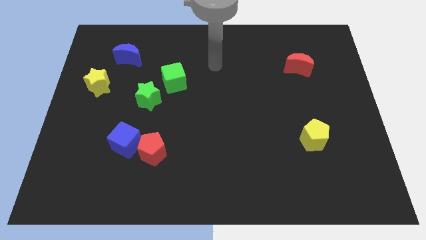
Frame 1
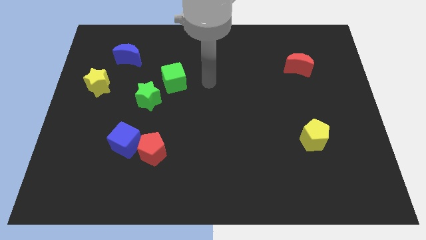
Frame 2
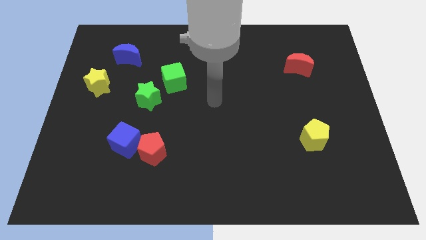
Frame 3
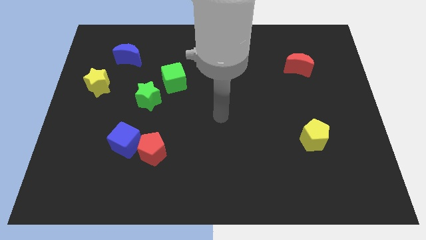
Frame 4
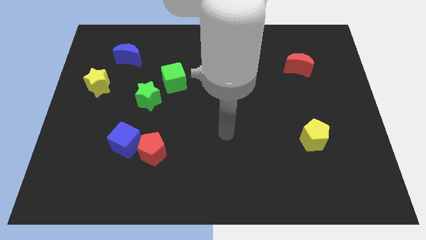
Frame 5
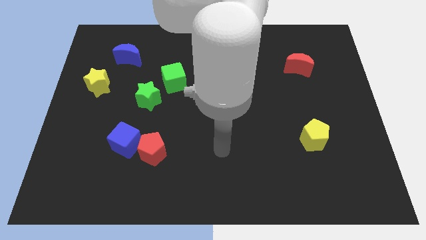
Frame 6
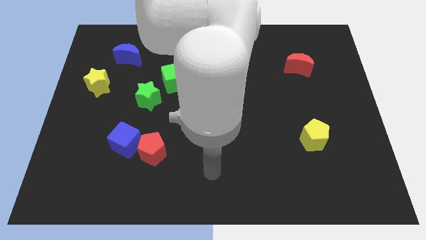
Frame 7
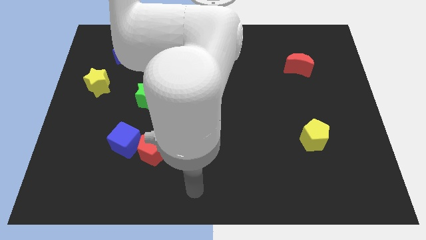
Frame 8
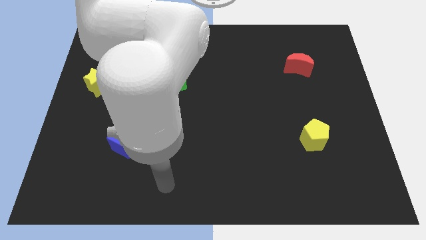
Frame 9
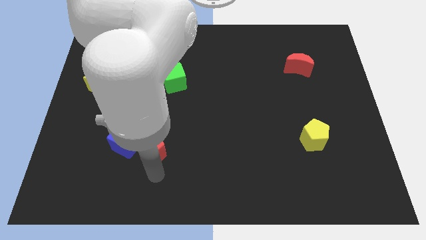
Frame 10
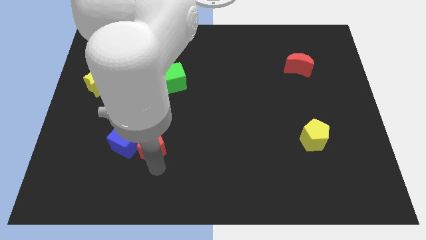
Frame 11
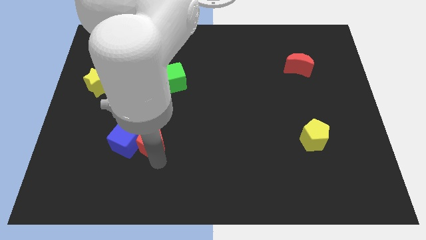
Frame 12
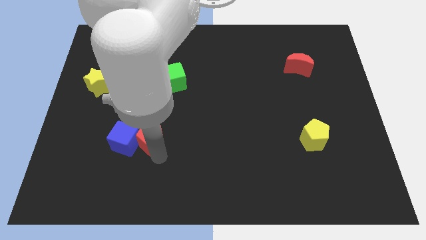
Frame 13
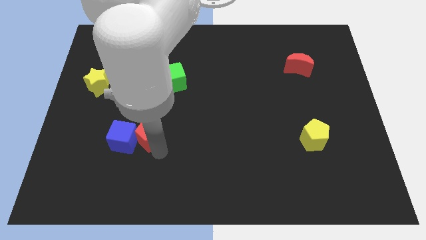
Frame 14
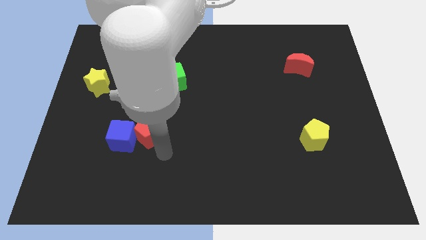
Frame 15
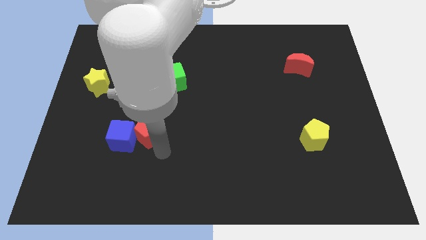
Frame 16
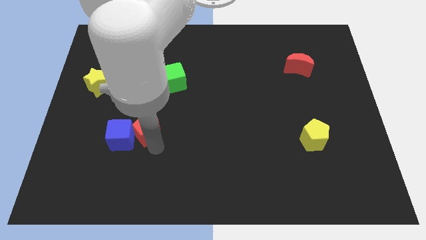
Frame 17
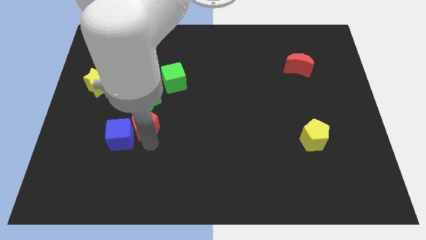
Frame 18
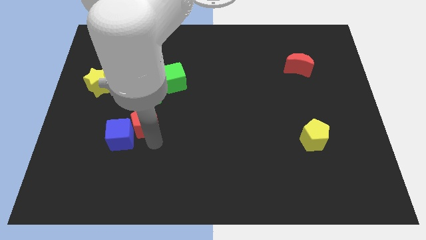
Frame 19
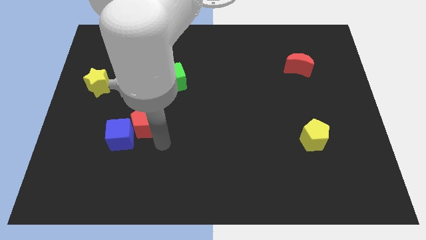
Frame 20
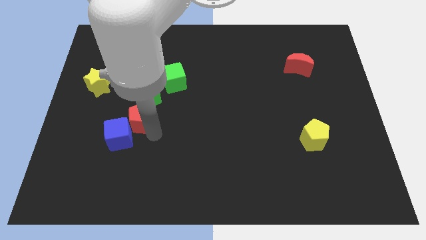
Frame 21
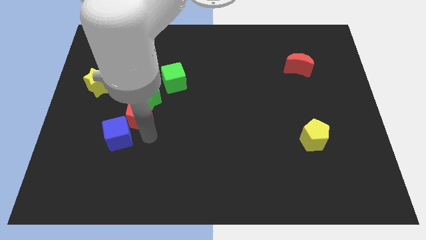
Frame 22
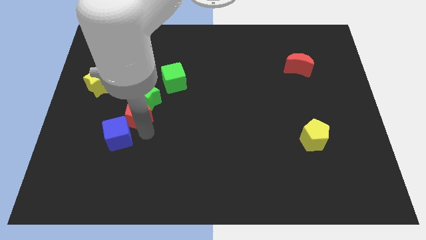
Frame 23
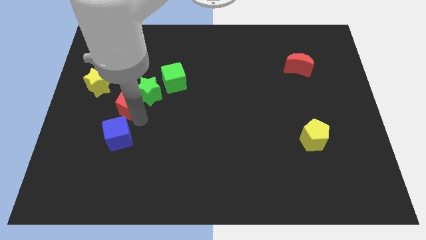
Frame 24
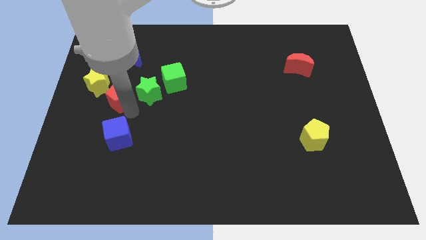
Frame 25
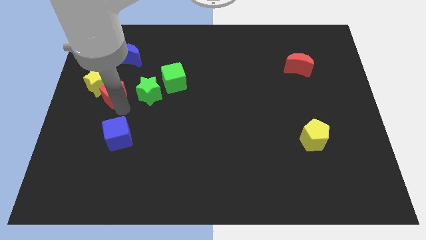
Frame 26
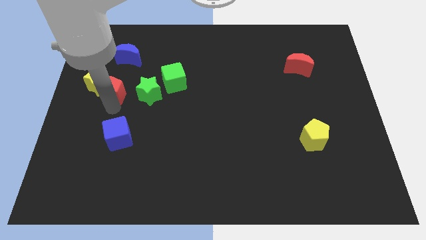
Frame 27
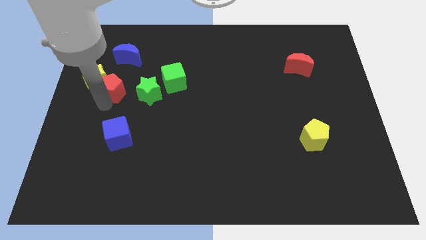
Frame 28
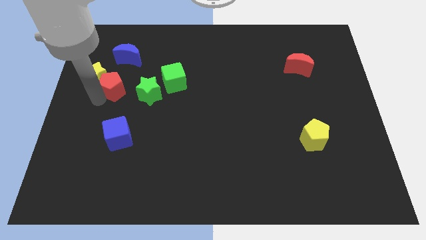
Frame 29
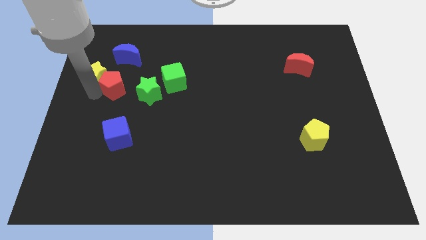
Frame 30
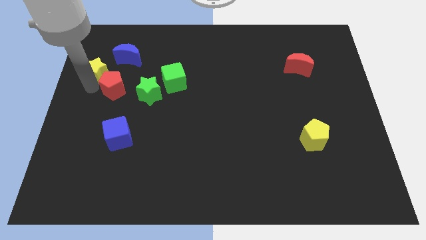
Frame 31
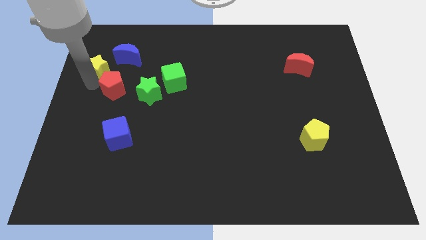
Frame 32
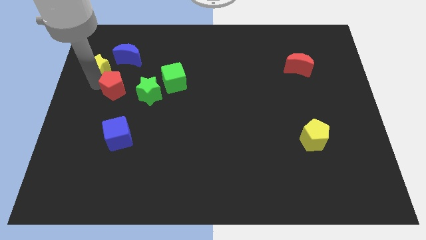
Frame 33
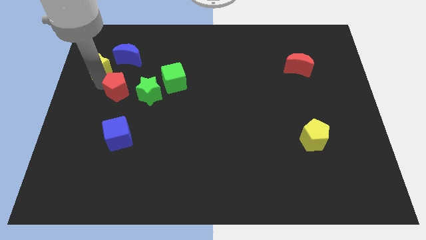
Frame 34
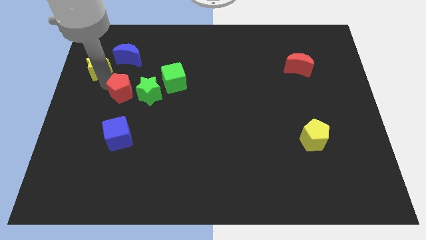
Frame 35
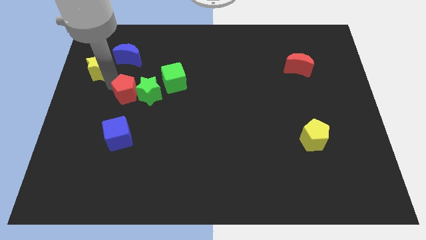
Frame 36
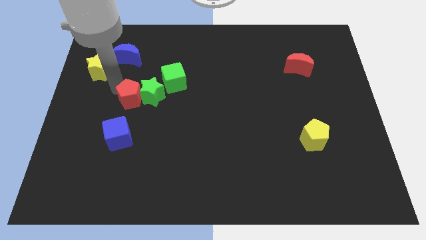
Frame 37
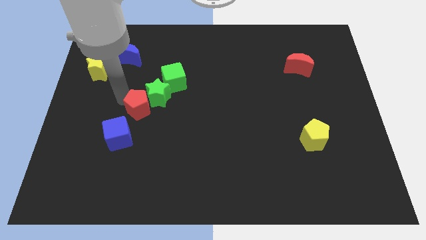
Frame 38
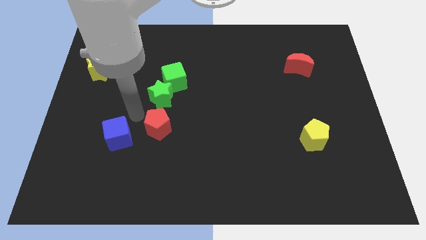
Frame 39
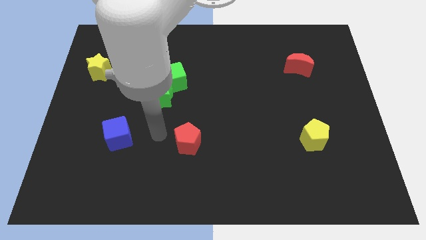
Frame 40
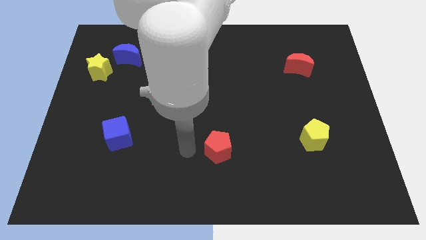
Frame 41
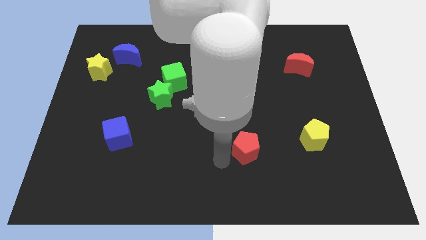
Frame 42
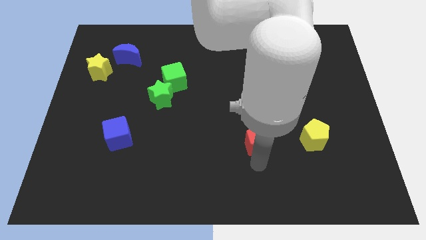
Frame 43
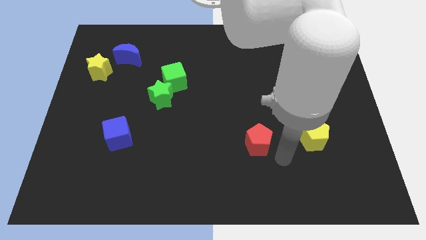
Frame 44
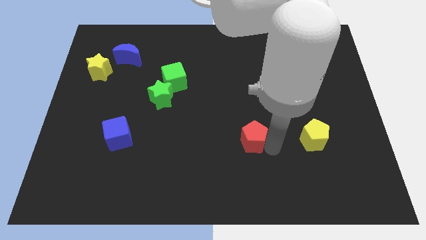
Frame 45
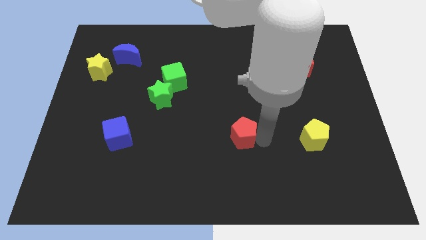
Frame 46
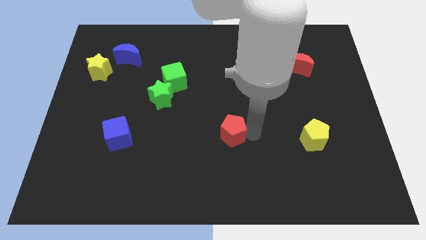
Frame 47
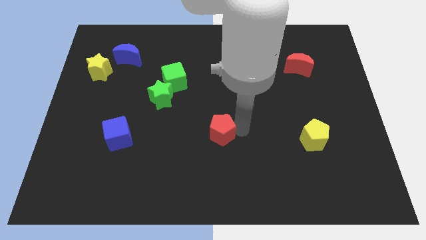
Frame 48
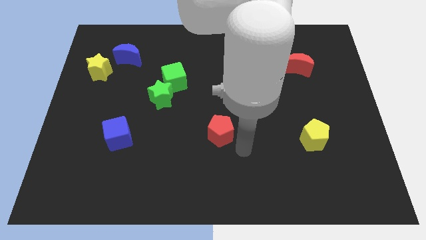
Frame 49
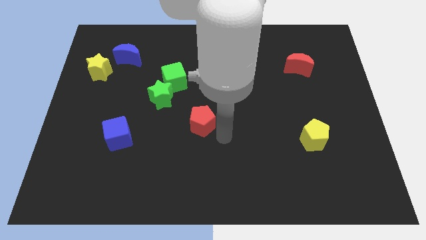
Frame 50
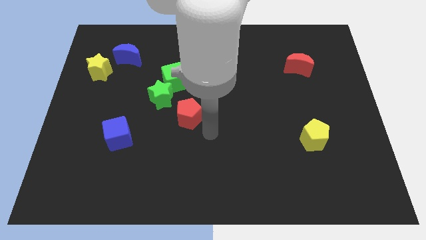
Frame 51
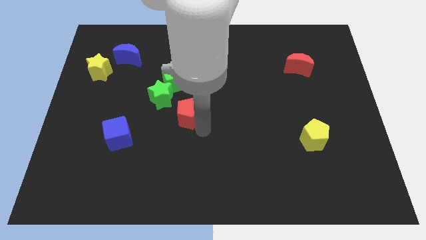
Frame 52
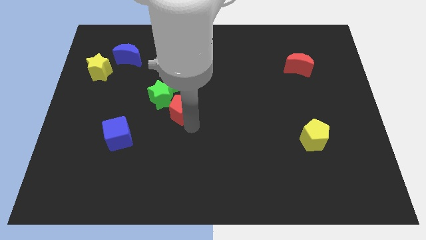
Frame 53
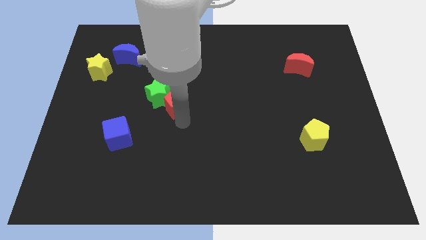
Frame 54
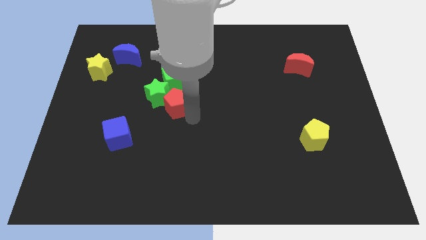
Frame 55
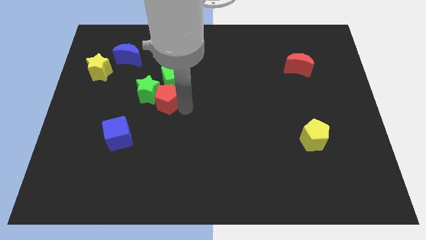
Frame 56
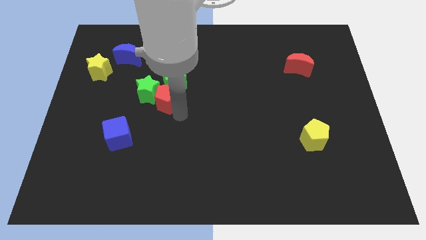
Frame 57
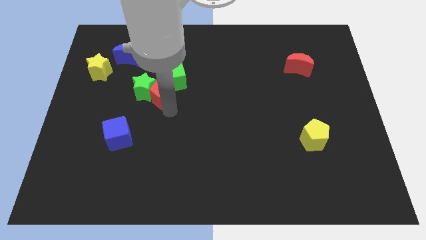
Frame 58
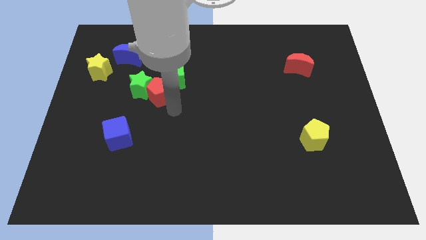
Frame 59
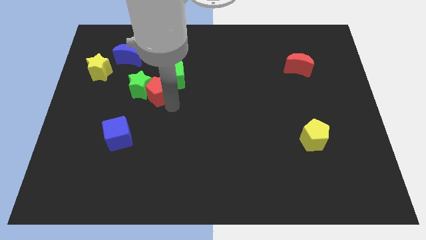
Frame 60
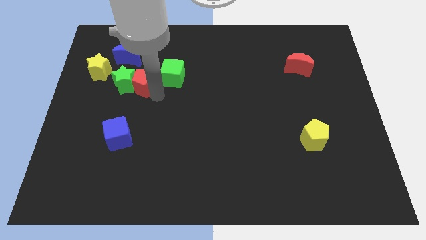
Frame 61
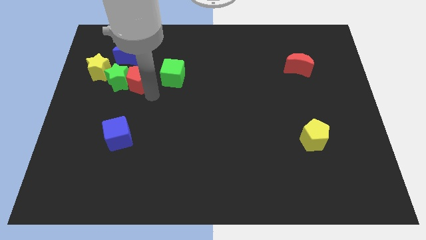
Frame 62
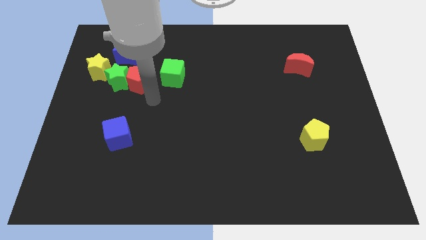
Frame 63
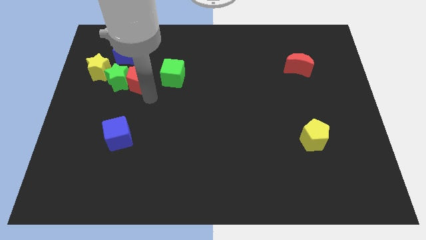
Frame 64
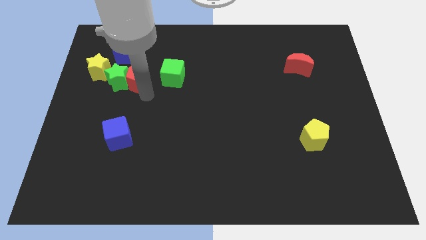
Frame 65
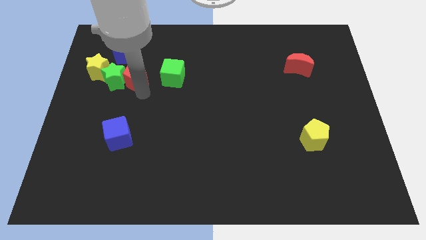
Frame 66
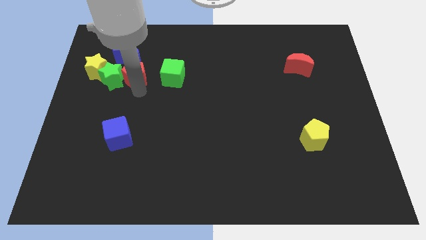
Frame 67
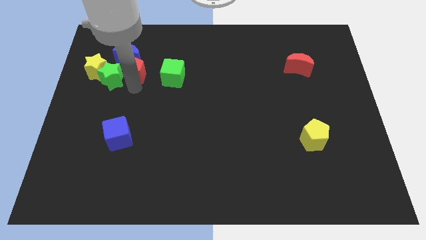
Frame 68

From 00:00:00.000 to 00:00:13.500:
slide the red pentagon towards the blue moon
